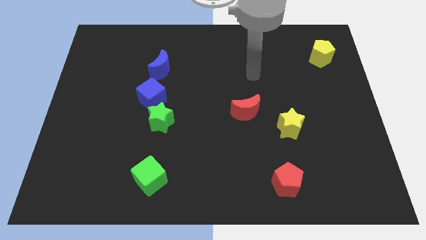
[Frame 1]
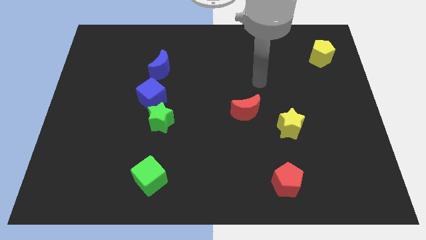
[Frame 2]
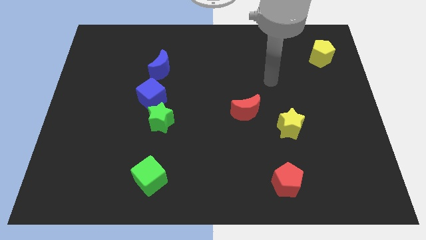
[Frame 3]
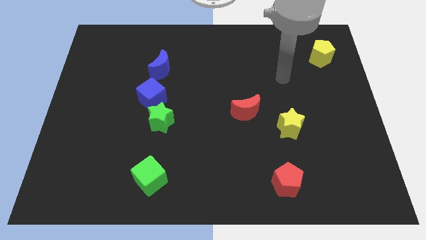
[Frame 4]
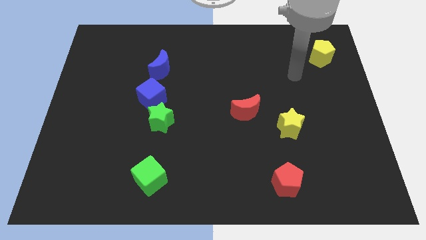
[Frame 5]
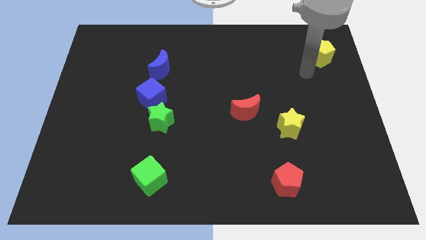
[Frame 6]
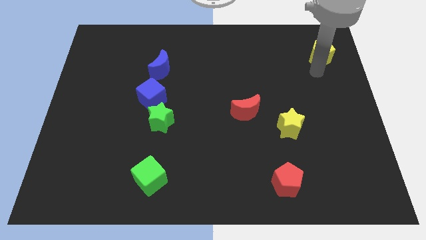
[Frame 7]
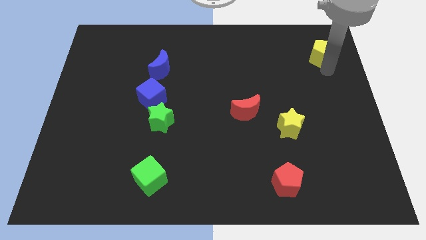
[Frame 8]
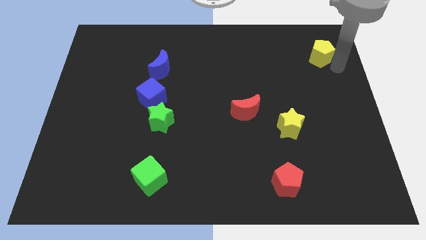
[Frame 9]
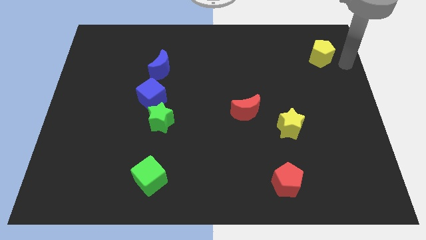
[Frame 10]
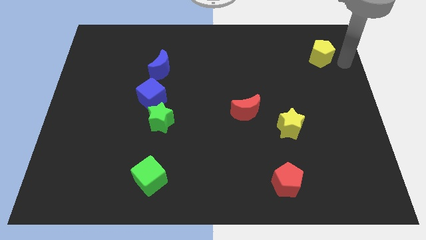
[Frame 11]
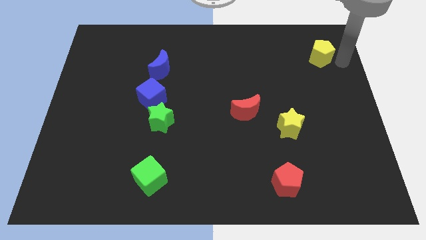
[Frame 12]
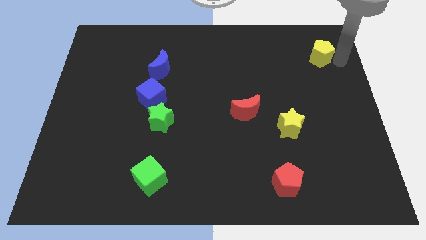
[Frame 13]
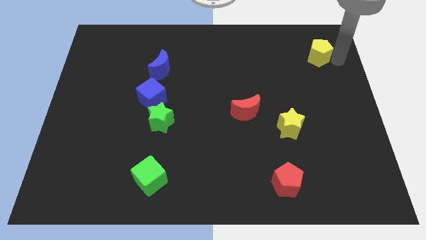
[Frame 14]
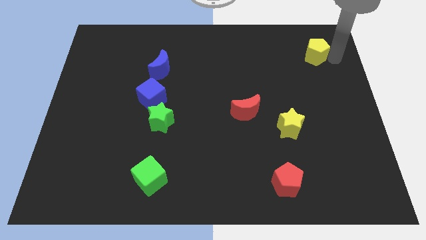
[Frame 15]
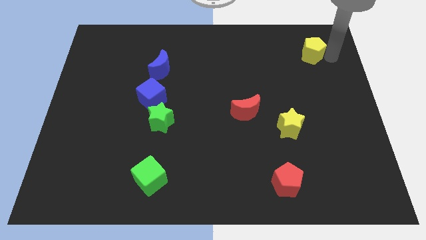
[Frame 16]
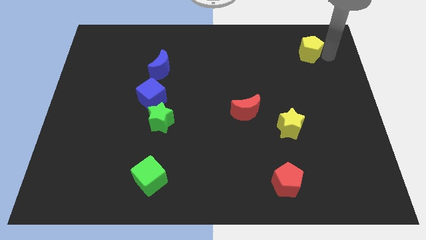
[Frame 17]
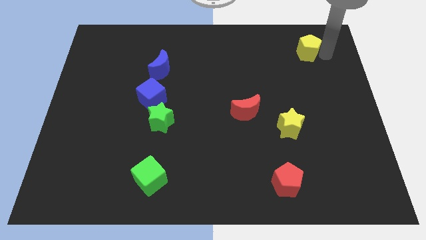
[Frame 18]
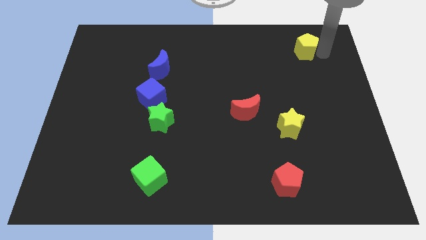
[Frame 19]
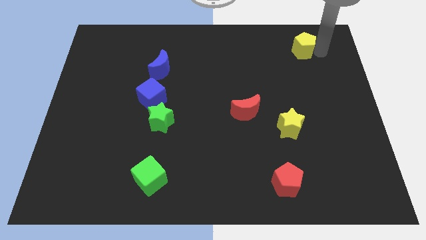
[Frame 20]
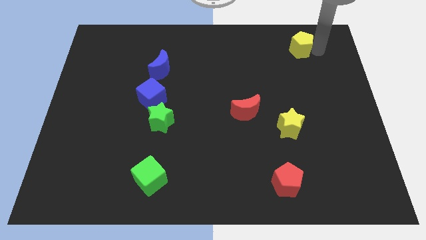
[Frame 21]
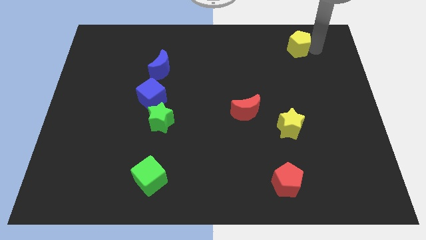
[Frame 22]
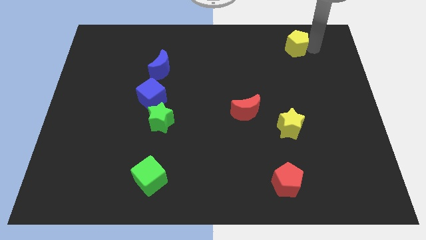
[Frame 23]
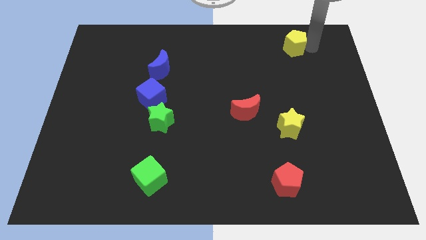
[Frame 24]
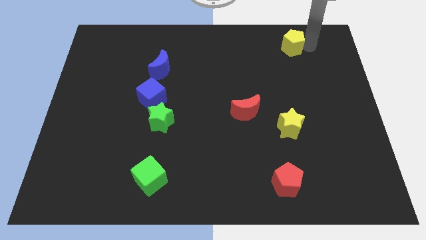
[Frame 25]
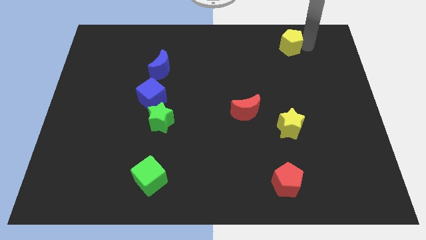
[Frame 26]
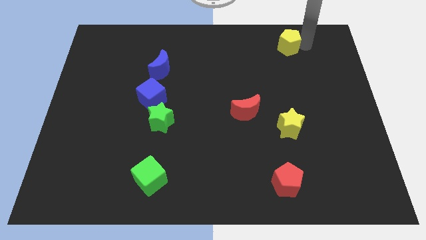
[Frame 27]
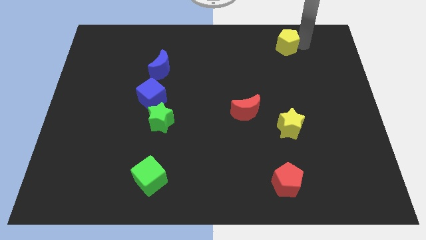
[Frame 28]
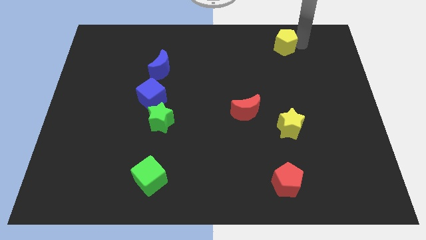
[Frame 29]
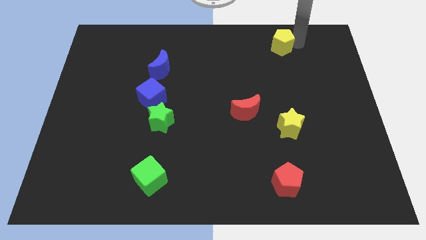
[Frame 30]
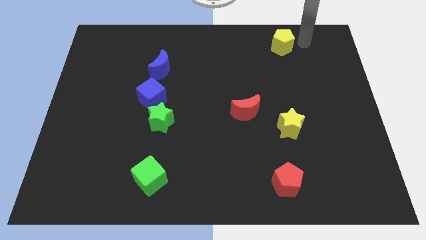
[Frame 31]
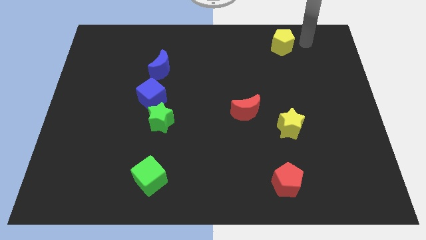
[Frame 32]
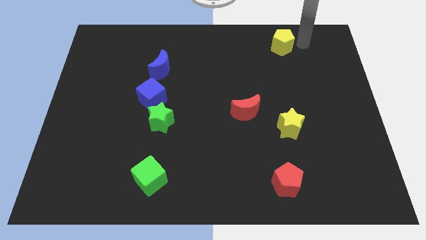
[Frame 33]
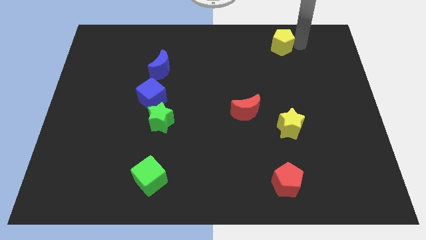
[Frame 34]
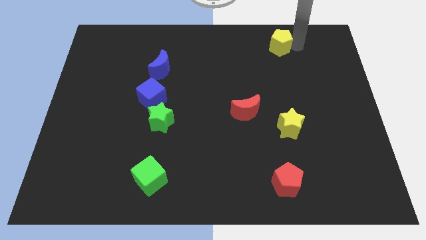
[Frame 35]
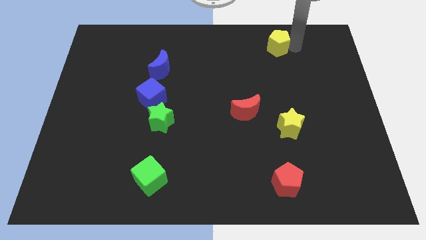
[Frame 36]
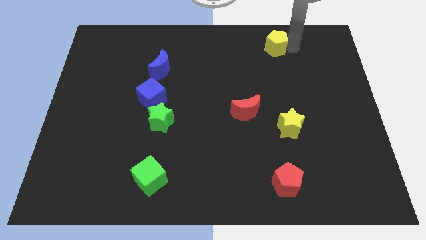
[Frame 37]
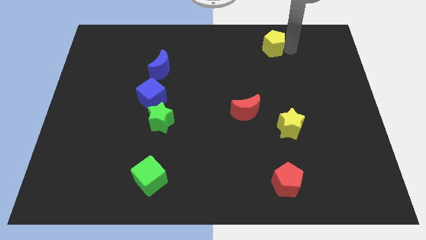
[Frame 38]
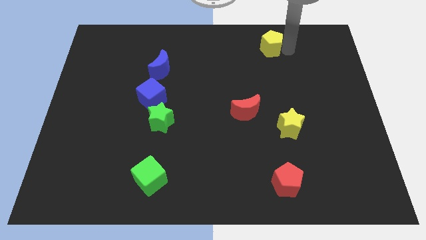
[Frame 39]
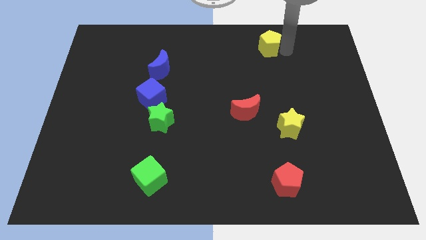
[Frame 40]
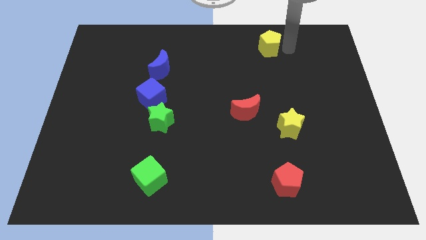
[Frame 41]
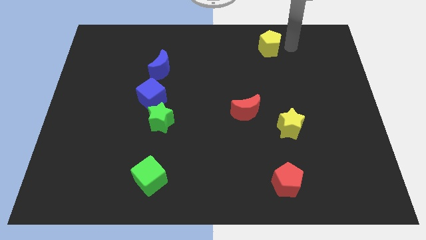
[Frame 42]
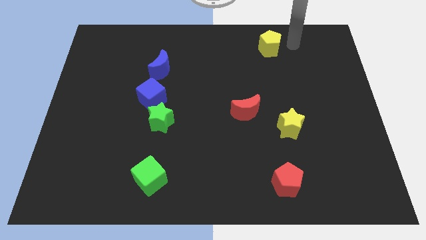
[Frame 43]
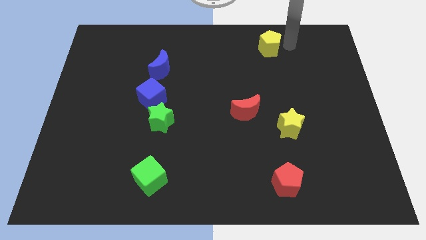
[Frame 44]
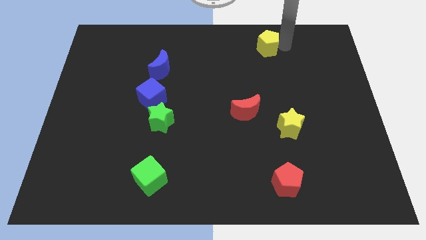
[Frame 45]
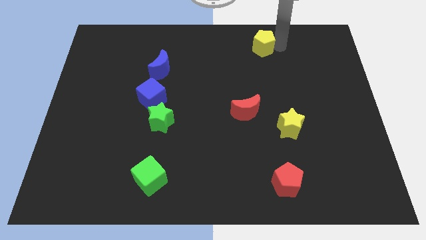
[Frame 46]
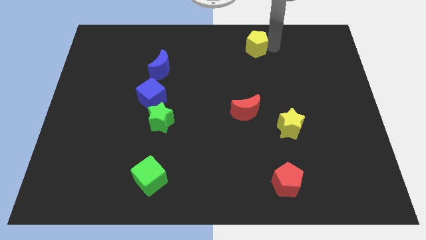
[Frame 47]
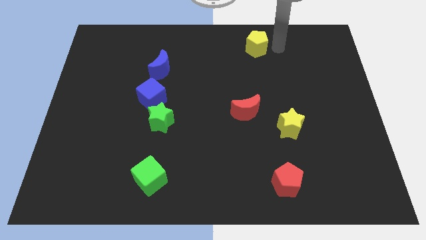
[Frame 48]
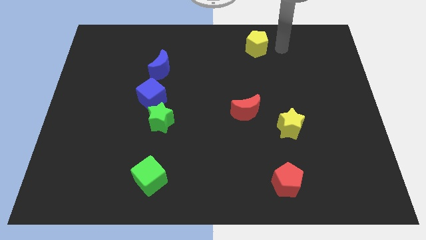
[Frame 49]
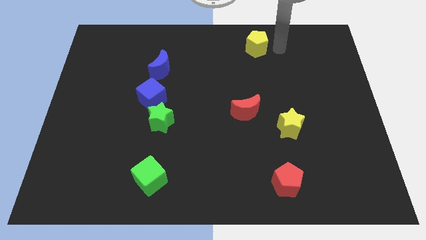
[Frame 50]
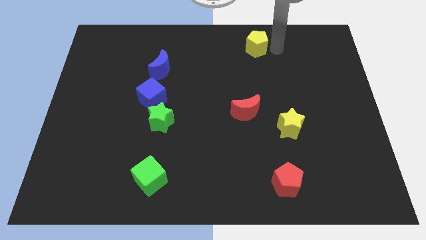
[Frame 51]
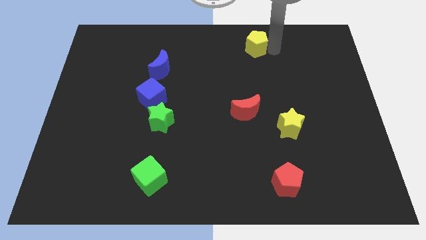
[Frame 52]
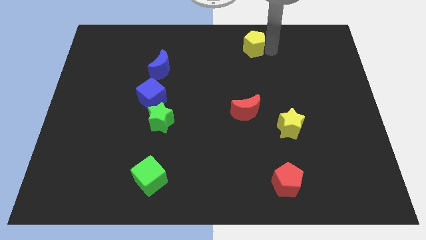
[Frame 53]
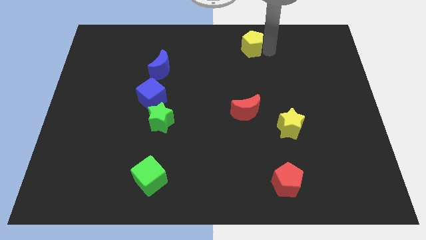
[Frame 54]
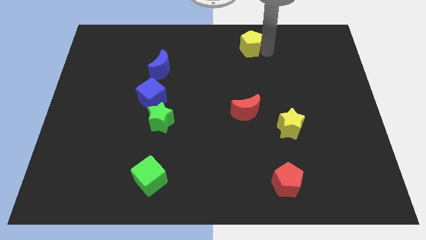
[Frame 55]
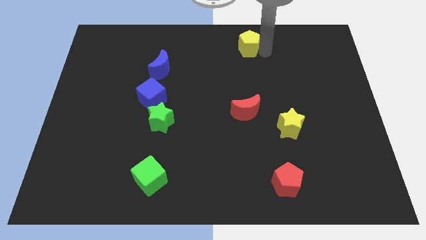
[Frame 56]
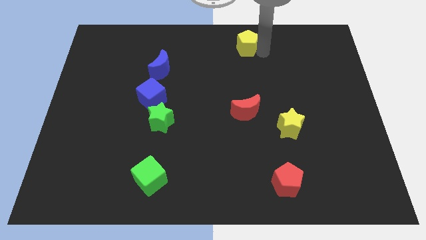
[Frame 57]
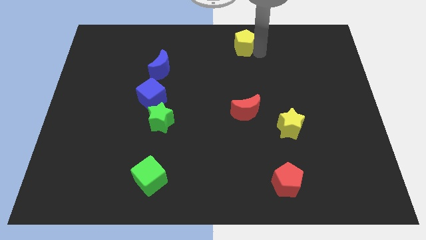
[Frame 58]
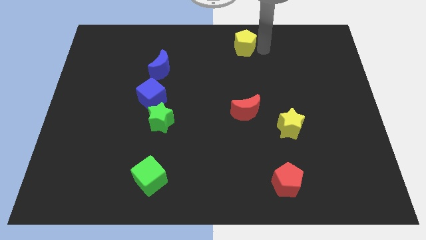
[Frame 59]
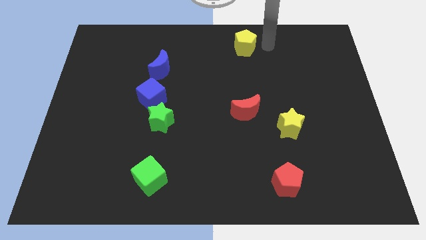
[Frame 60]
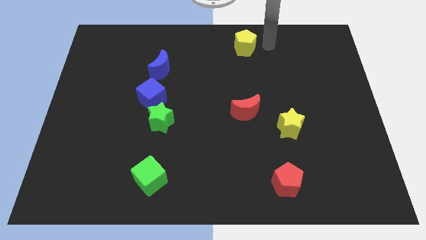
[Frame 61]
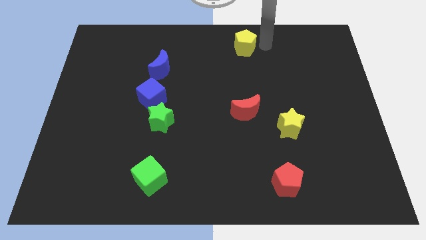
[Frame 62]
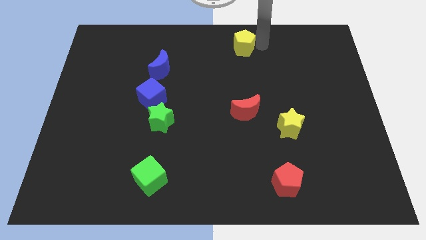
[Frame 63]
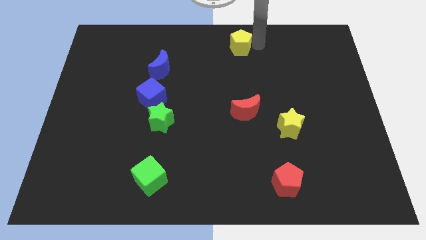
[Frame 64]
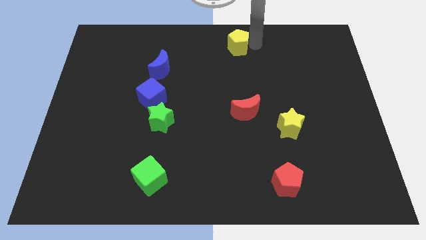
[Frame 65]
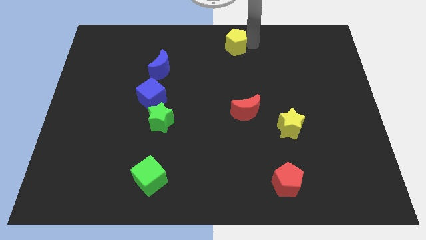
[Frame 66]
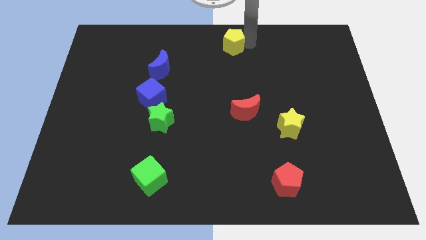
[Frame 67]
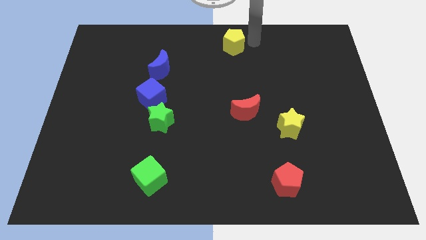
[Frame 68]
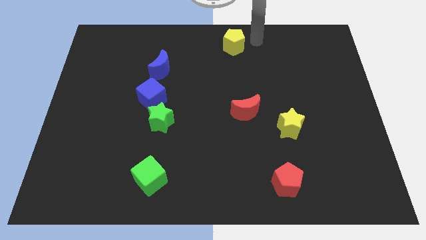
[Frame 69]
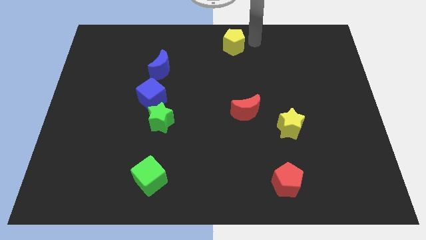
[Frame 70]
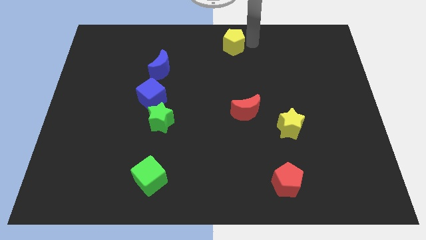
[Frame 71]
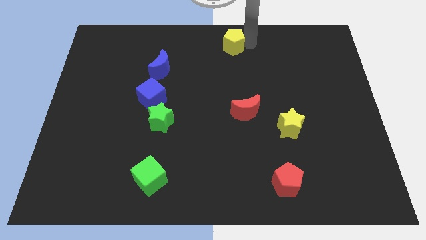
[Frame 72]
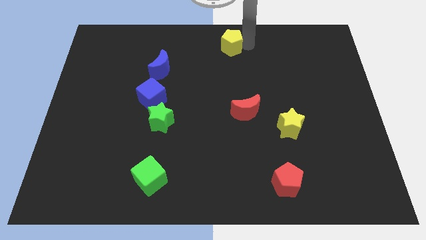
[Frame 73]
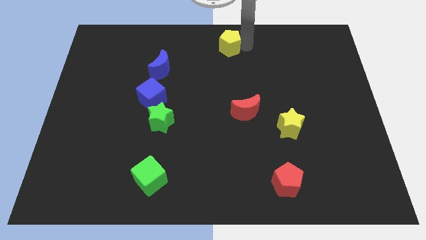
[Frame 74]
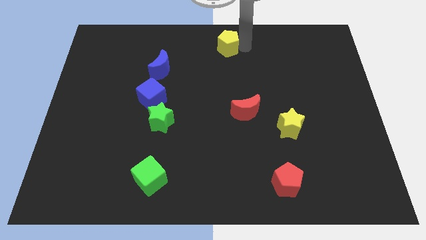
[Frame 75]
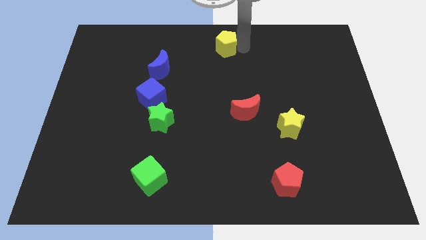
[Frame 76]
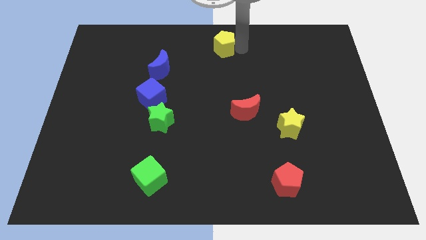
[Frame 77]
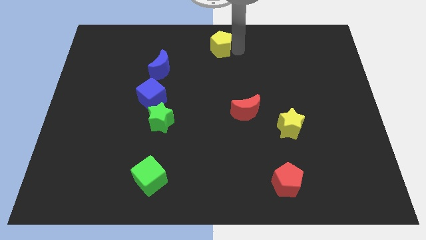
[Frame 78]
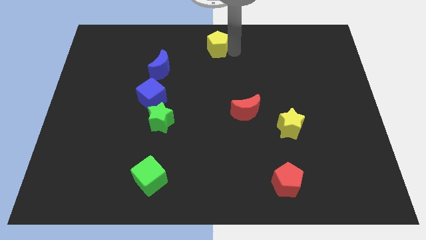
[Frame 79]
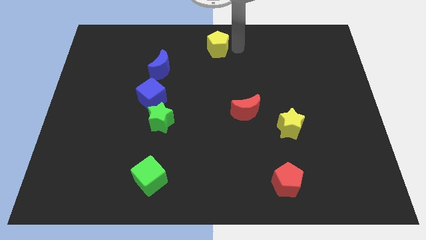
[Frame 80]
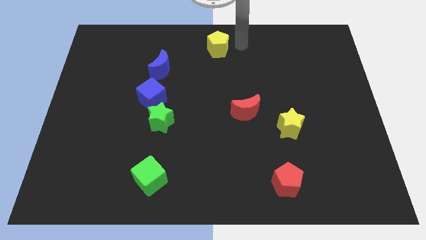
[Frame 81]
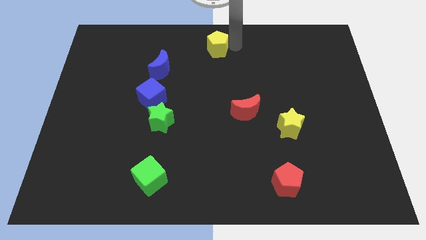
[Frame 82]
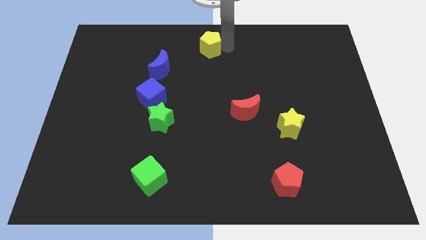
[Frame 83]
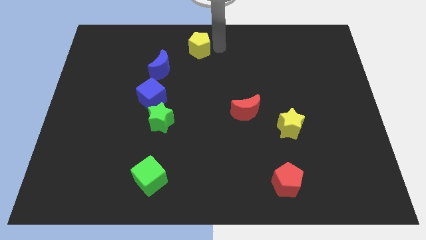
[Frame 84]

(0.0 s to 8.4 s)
slide the yellow pentagon to the top right side of the blue moon
